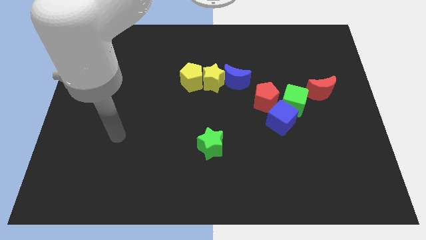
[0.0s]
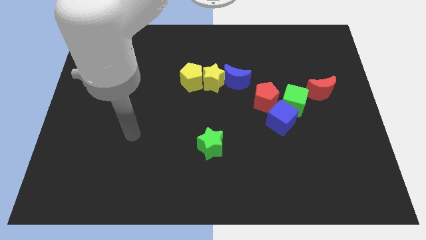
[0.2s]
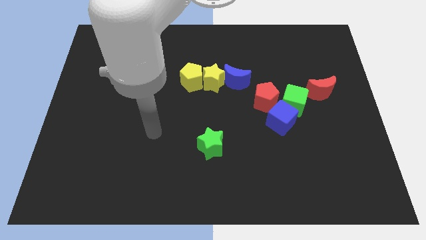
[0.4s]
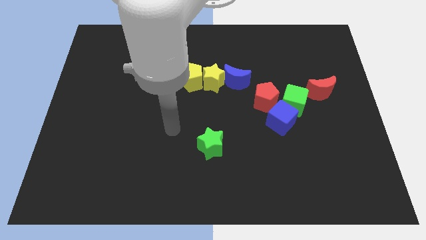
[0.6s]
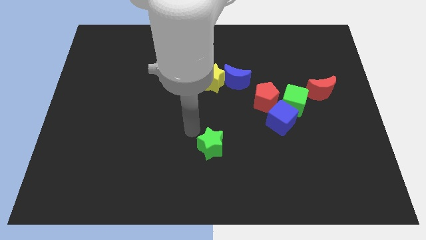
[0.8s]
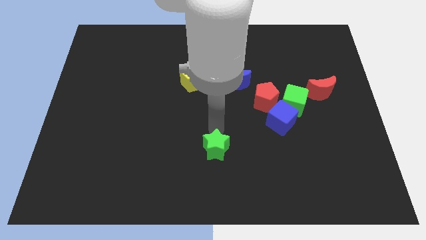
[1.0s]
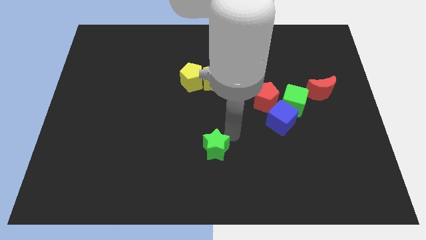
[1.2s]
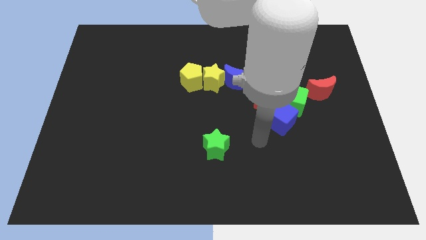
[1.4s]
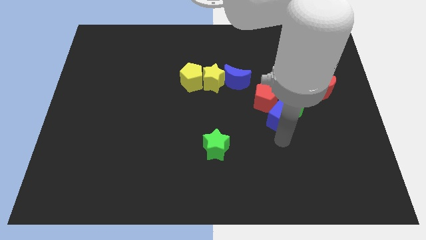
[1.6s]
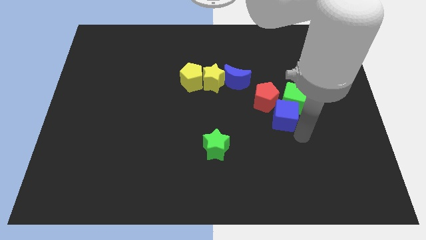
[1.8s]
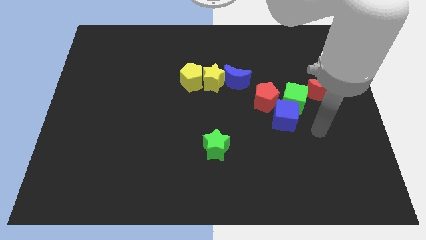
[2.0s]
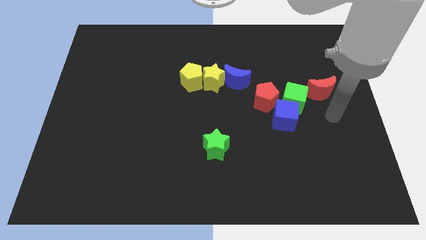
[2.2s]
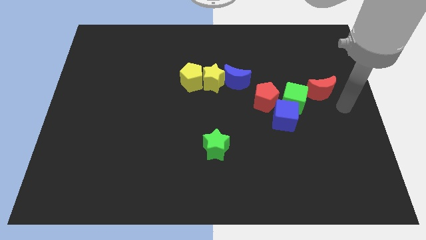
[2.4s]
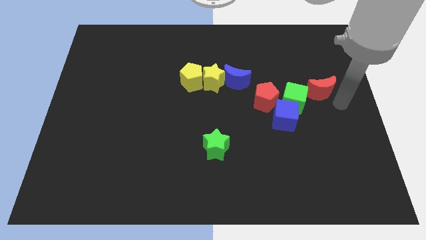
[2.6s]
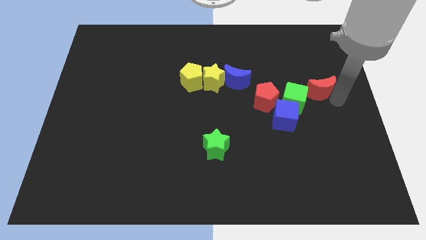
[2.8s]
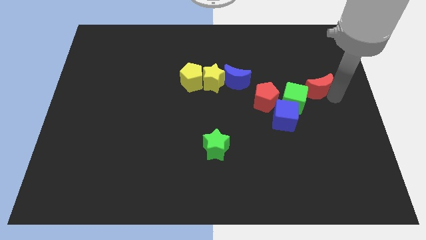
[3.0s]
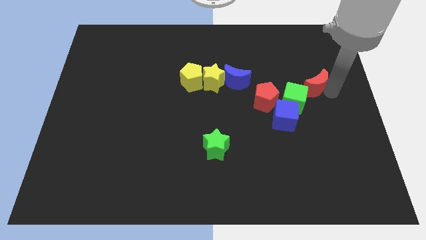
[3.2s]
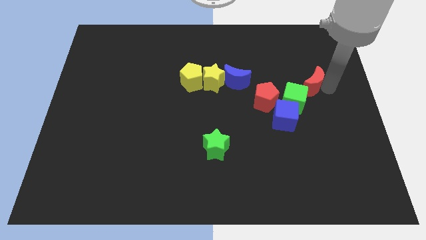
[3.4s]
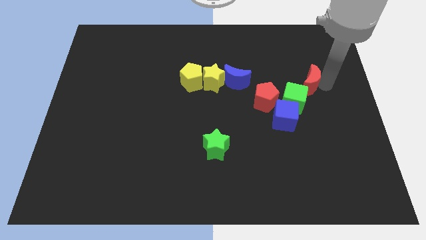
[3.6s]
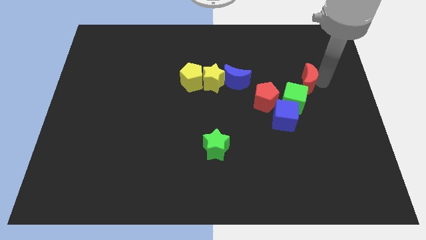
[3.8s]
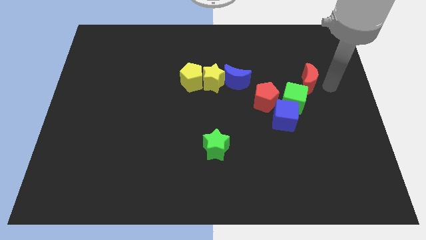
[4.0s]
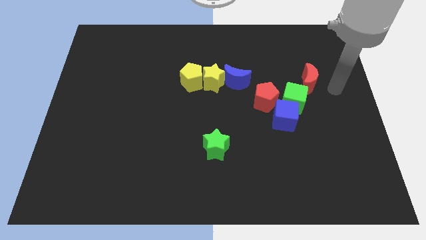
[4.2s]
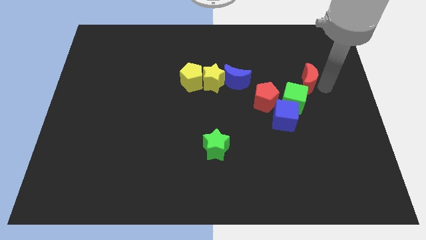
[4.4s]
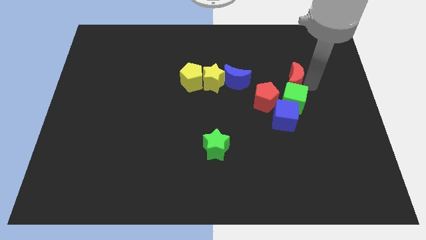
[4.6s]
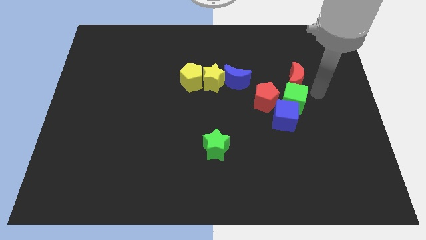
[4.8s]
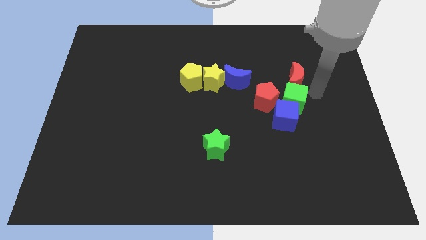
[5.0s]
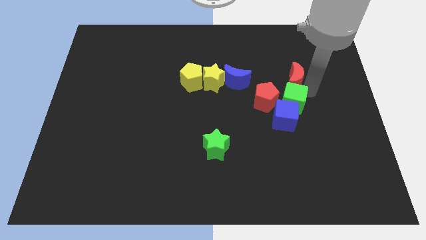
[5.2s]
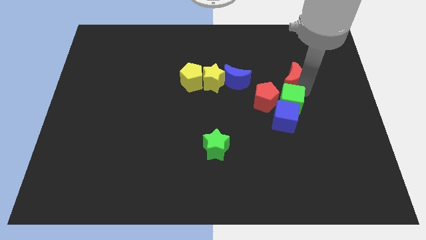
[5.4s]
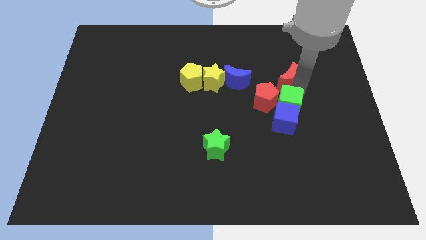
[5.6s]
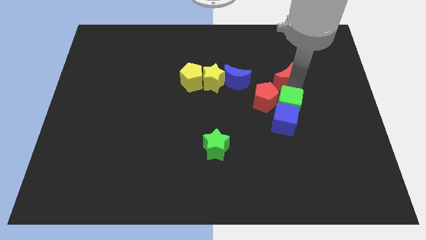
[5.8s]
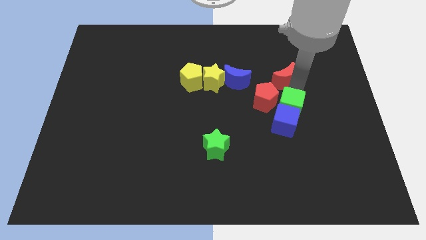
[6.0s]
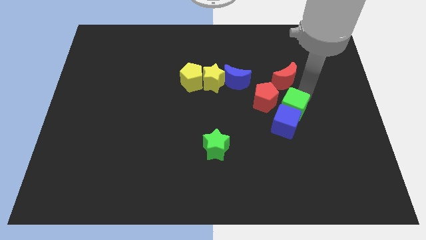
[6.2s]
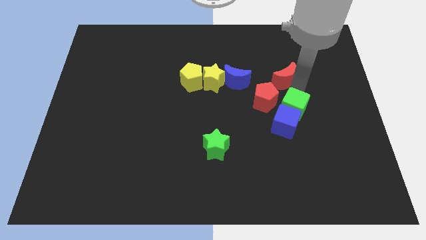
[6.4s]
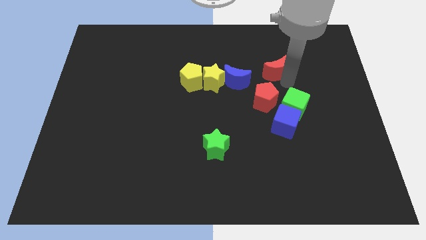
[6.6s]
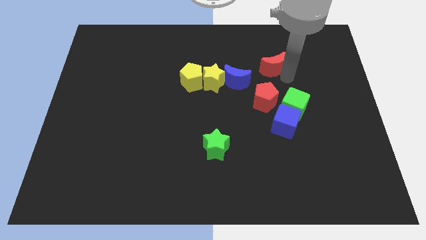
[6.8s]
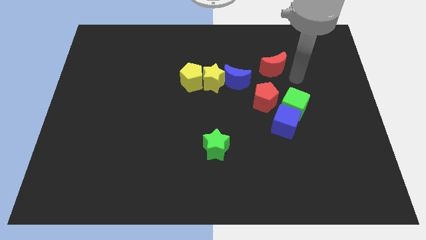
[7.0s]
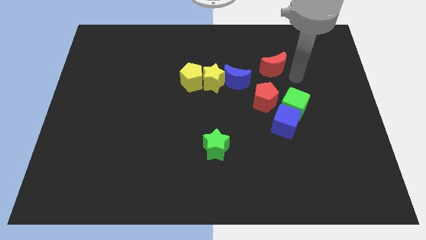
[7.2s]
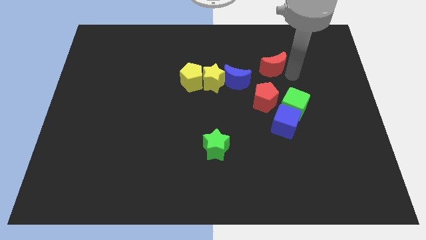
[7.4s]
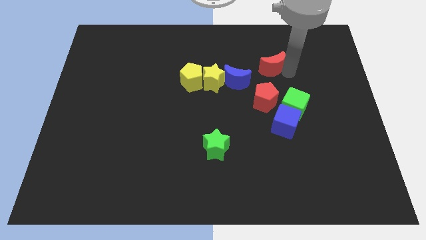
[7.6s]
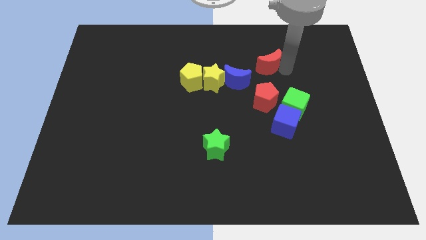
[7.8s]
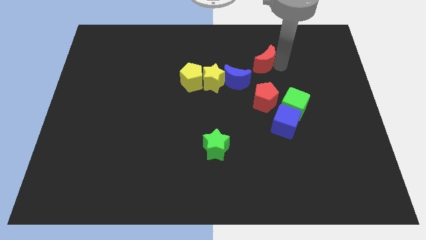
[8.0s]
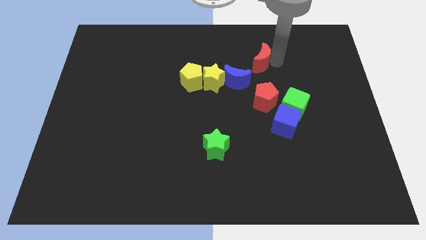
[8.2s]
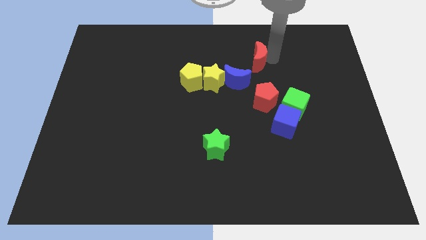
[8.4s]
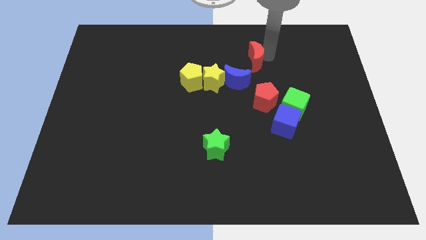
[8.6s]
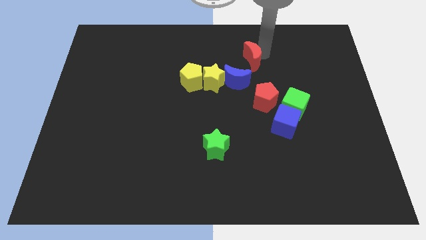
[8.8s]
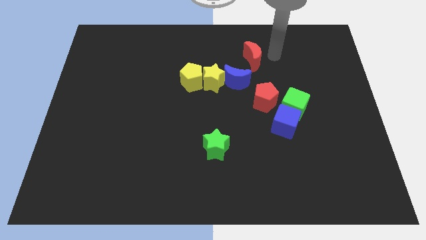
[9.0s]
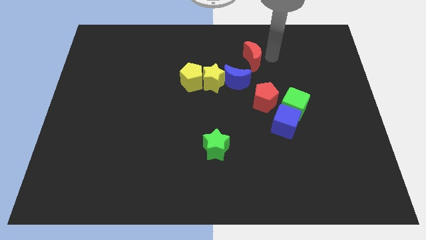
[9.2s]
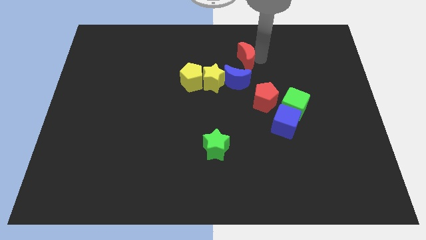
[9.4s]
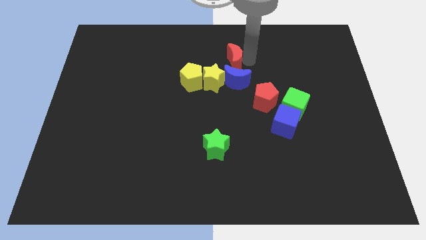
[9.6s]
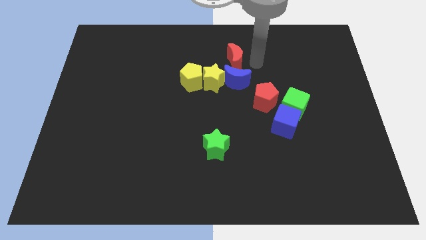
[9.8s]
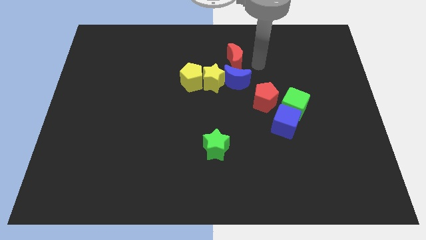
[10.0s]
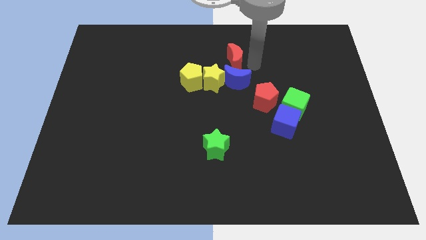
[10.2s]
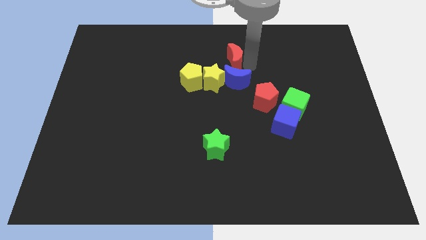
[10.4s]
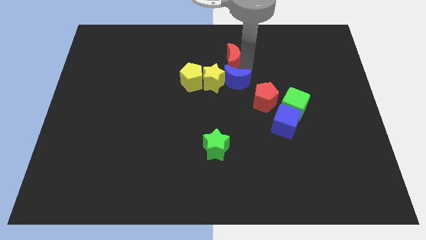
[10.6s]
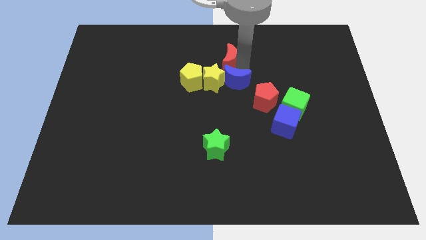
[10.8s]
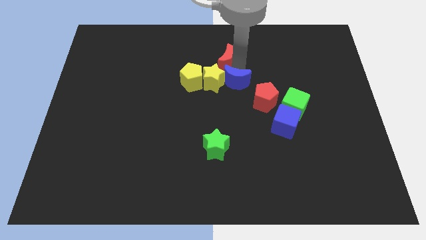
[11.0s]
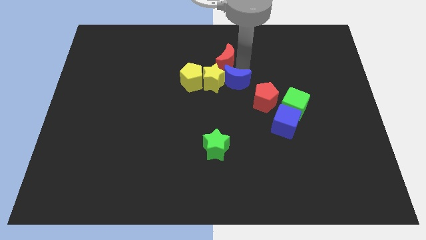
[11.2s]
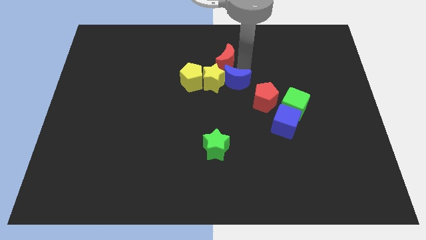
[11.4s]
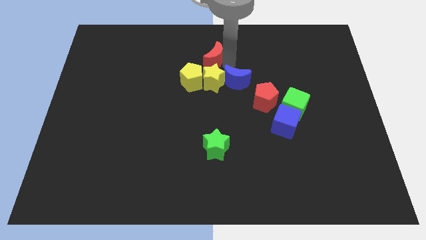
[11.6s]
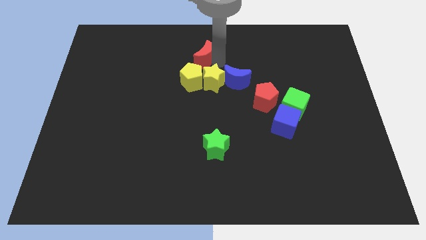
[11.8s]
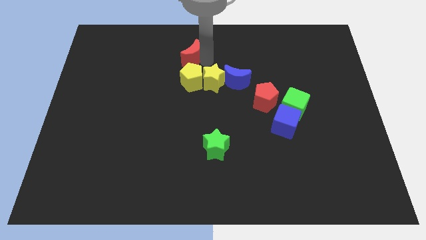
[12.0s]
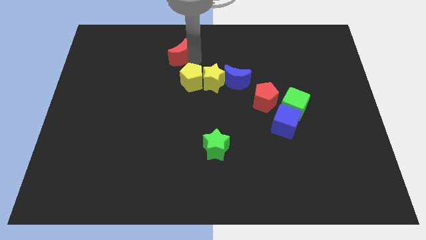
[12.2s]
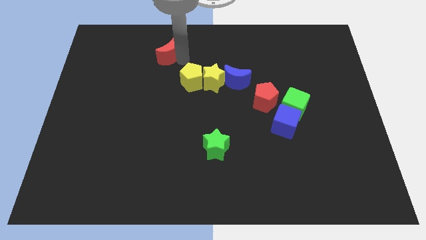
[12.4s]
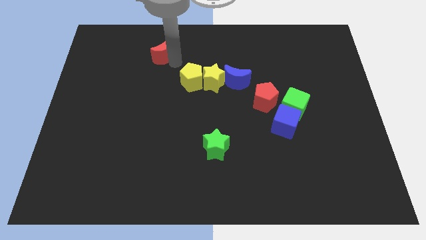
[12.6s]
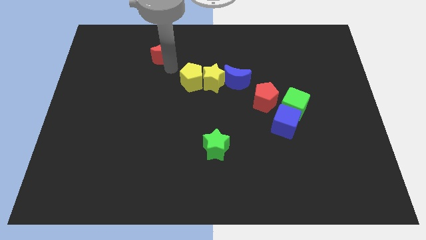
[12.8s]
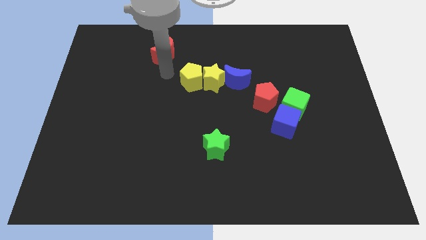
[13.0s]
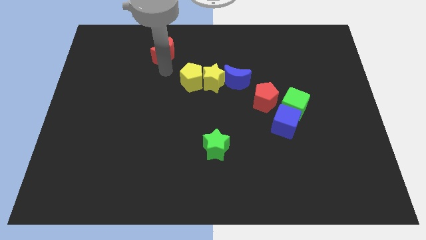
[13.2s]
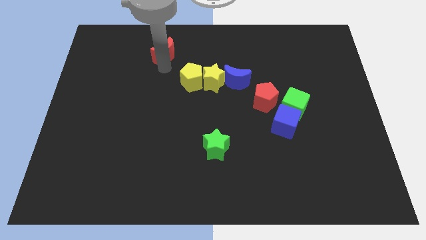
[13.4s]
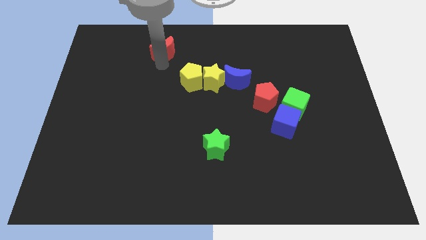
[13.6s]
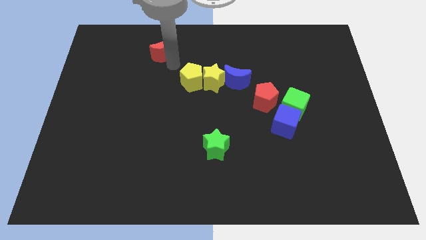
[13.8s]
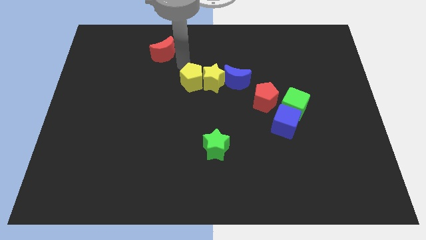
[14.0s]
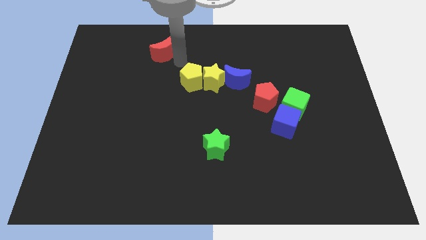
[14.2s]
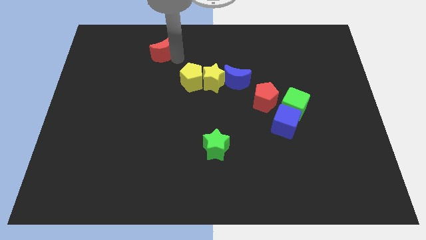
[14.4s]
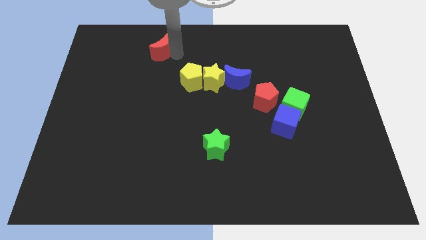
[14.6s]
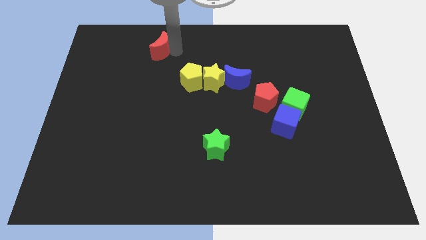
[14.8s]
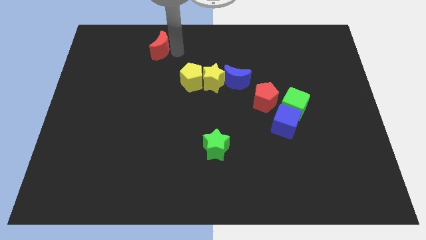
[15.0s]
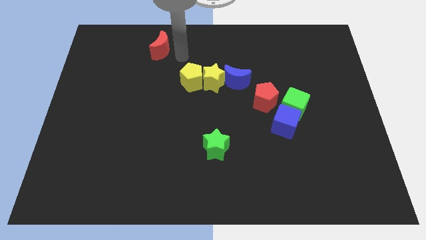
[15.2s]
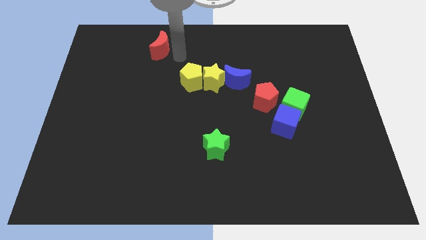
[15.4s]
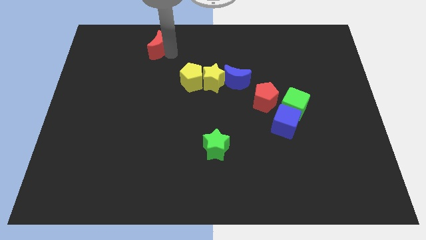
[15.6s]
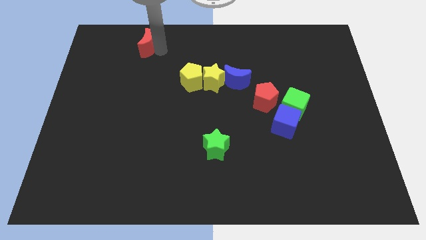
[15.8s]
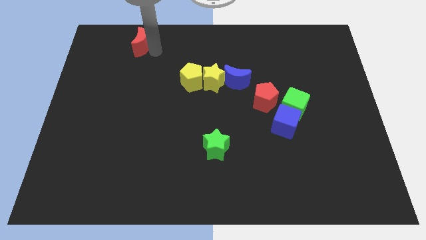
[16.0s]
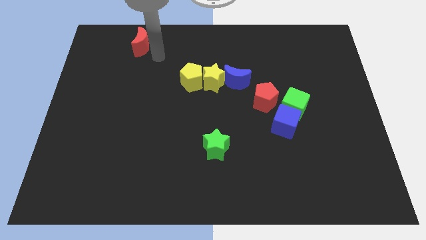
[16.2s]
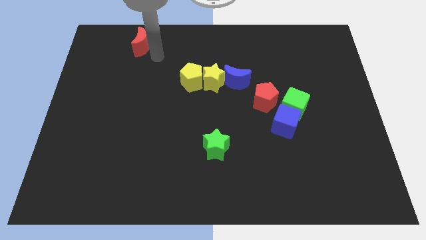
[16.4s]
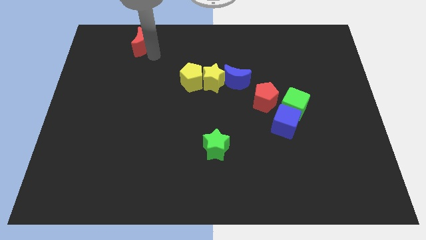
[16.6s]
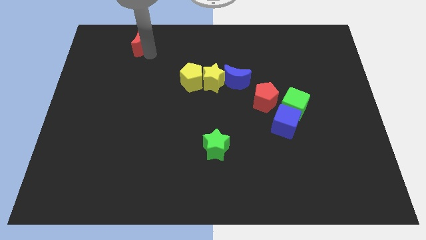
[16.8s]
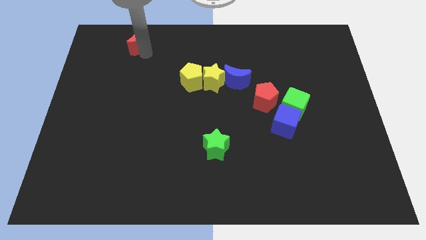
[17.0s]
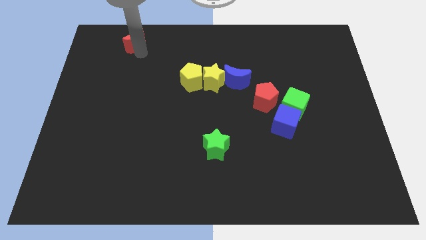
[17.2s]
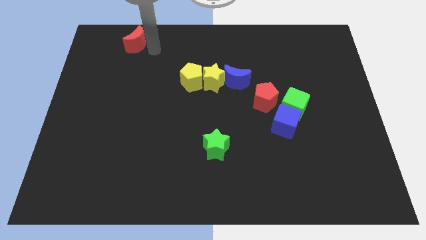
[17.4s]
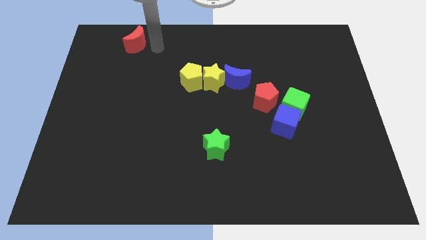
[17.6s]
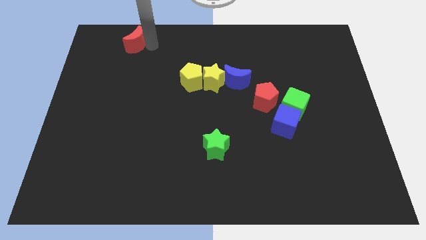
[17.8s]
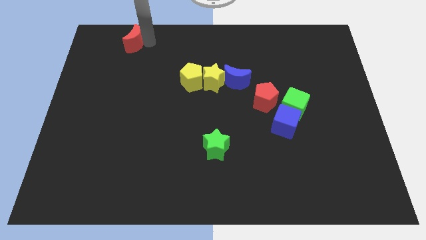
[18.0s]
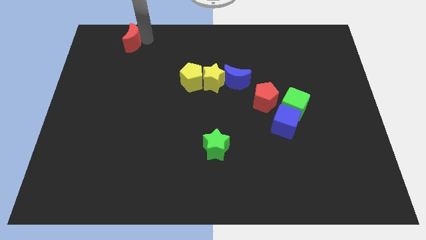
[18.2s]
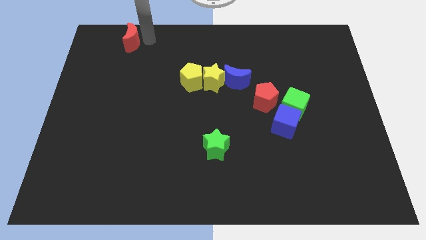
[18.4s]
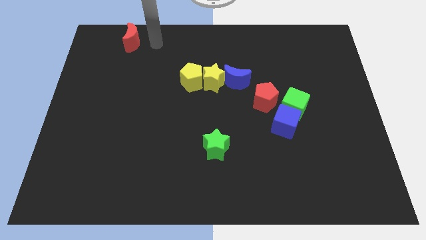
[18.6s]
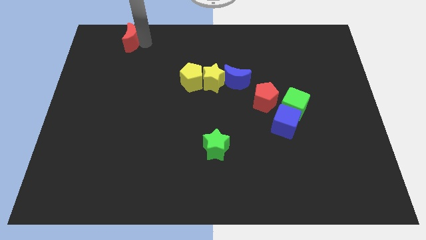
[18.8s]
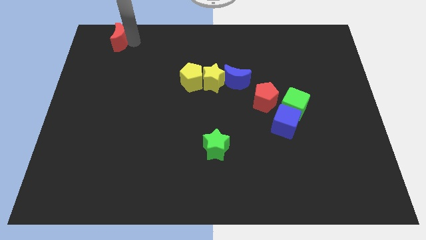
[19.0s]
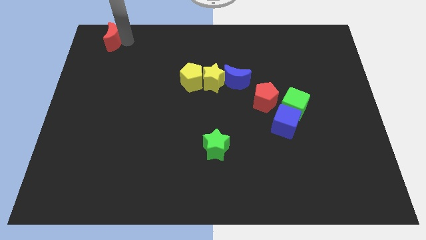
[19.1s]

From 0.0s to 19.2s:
slide the red moon to the top left
